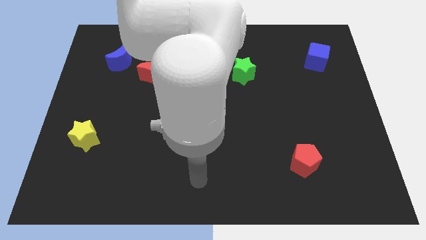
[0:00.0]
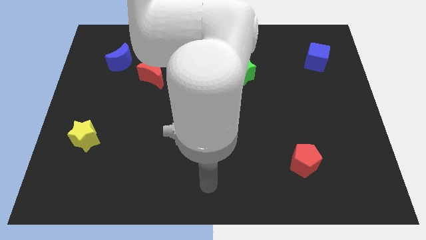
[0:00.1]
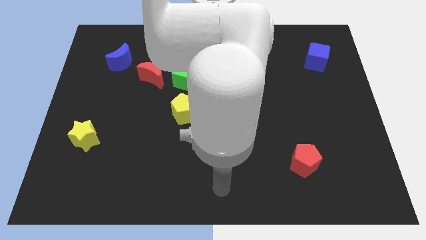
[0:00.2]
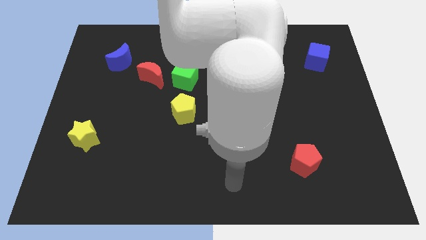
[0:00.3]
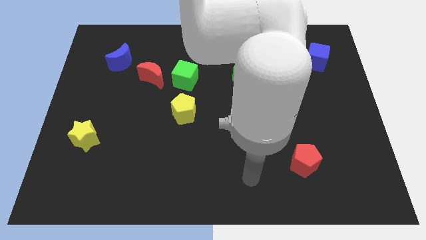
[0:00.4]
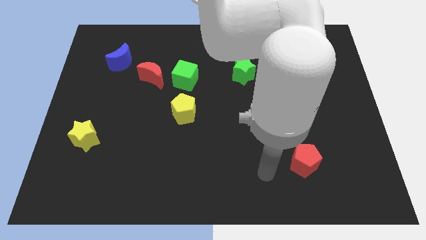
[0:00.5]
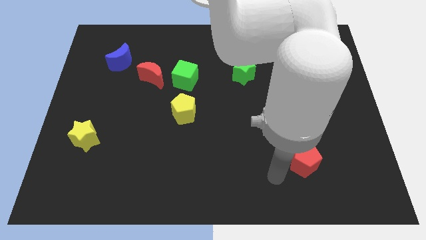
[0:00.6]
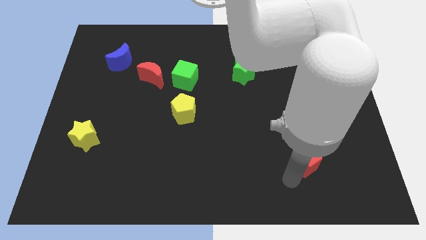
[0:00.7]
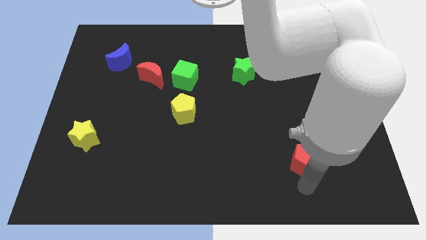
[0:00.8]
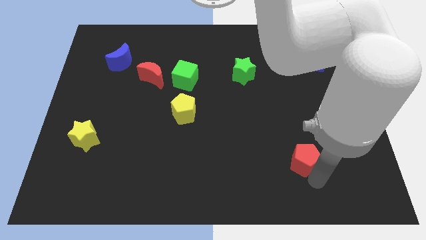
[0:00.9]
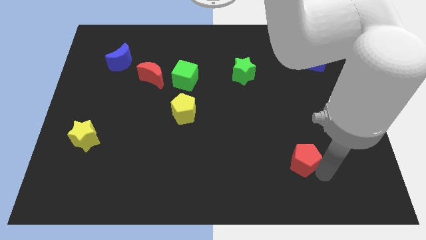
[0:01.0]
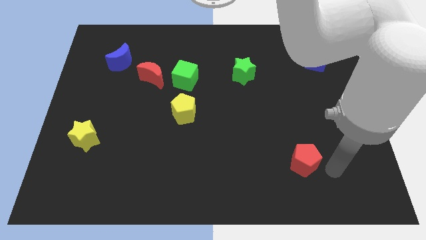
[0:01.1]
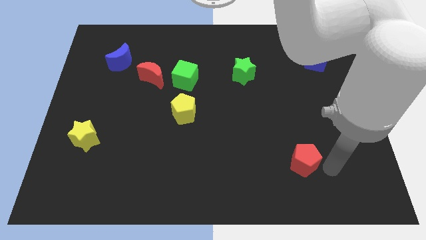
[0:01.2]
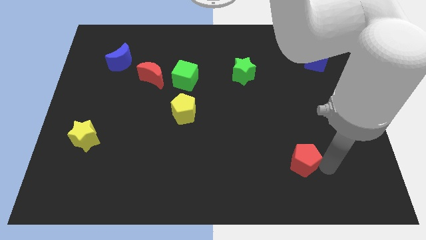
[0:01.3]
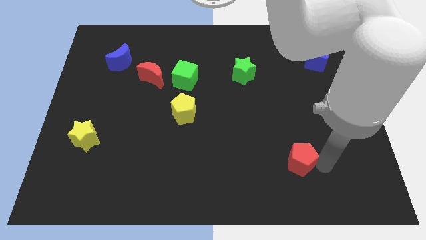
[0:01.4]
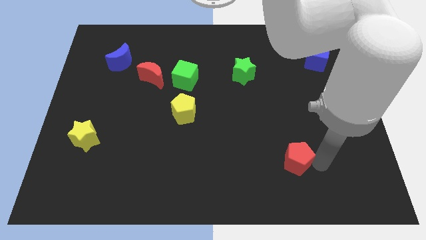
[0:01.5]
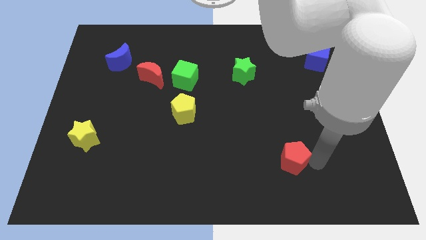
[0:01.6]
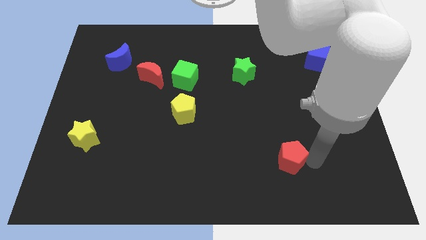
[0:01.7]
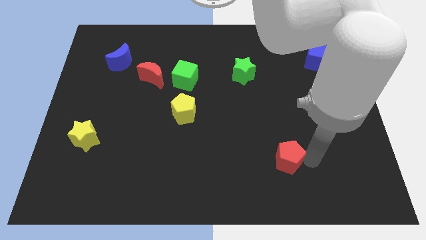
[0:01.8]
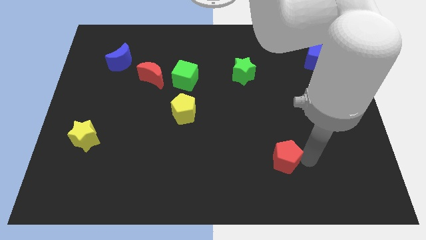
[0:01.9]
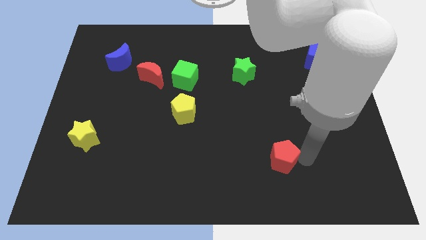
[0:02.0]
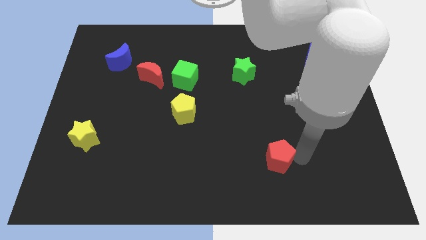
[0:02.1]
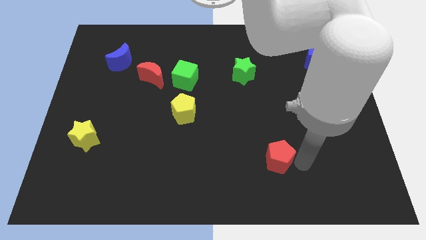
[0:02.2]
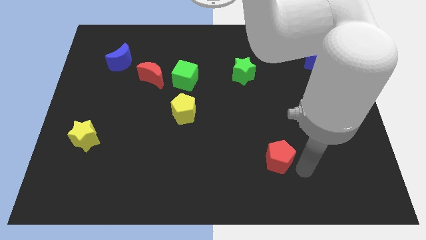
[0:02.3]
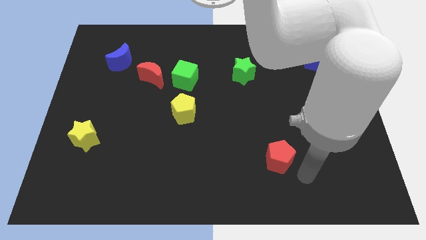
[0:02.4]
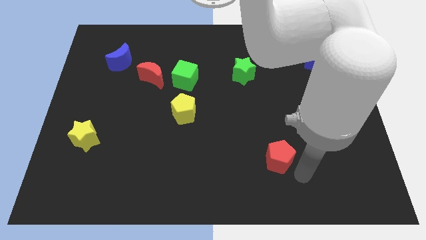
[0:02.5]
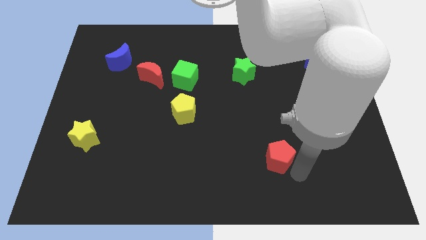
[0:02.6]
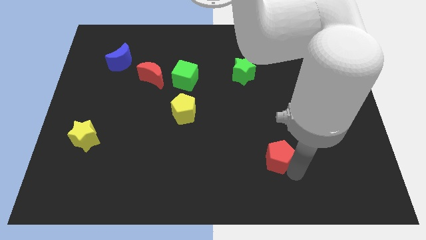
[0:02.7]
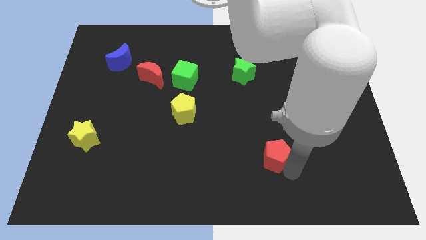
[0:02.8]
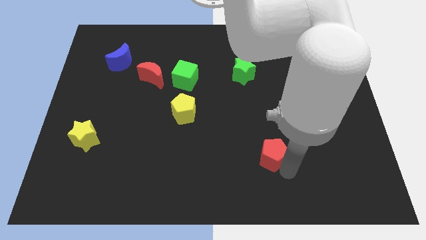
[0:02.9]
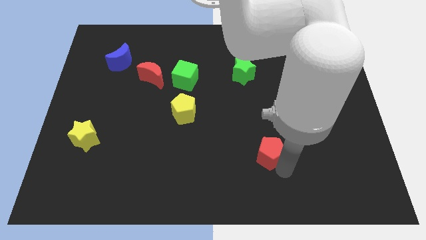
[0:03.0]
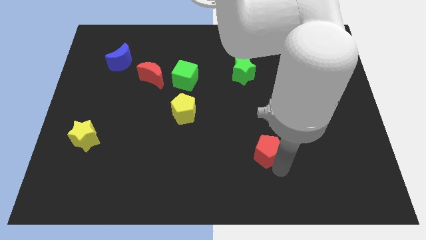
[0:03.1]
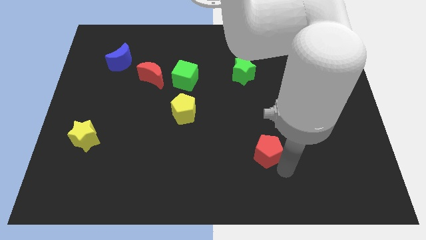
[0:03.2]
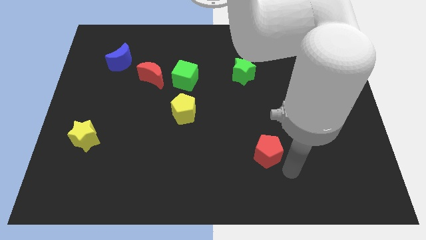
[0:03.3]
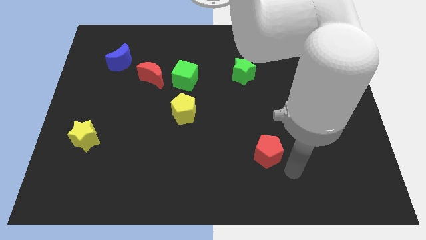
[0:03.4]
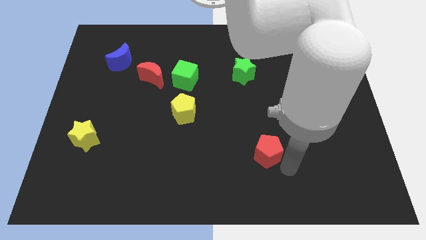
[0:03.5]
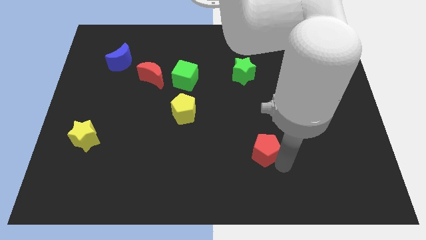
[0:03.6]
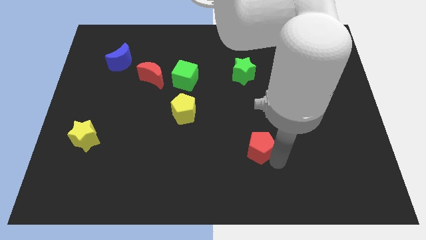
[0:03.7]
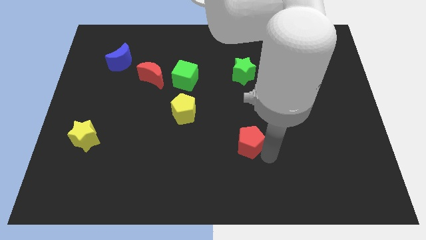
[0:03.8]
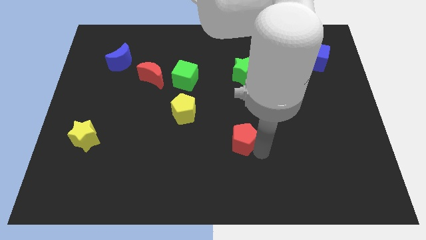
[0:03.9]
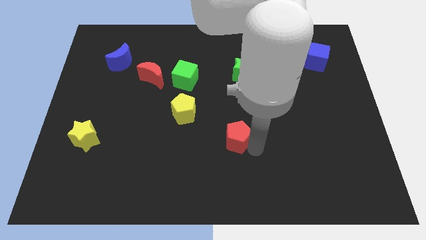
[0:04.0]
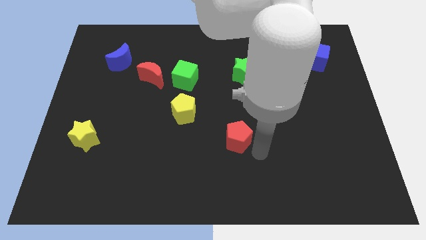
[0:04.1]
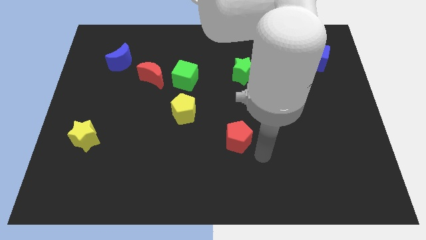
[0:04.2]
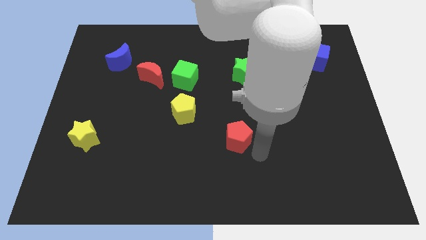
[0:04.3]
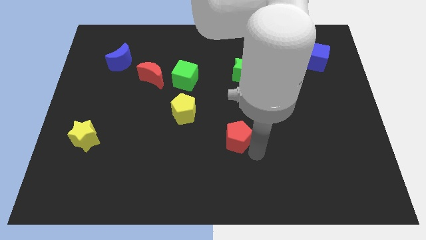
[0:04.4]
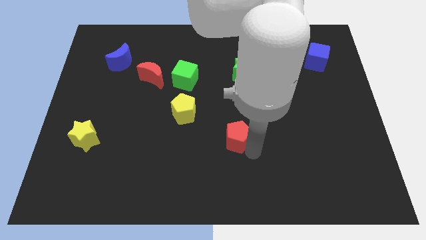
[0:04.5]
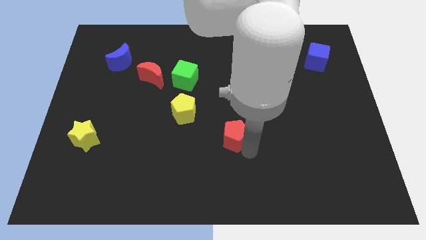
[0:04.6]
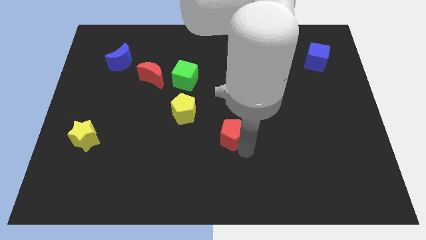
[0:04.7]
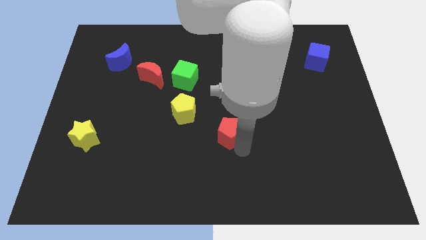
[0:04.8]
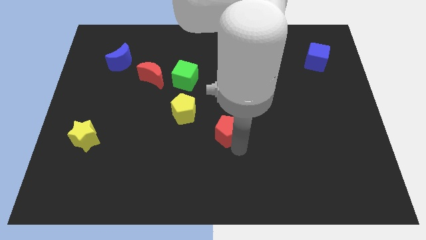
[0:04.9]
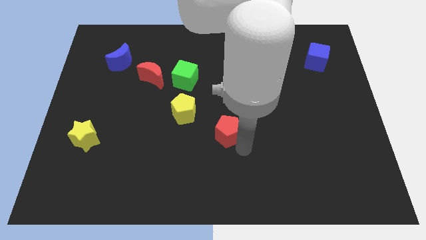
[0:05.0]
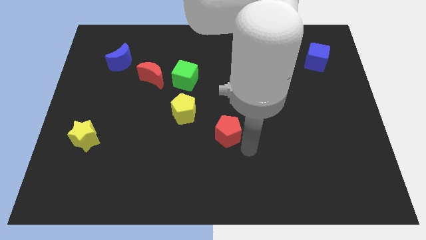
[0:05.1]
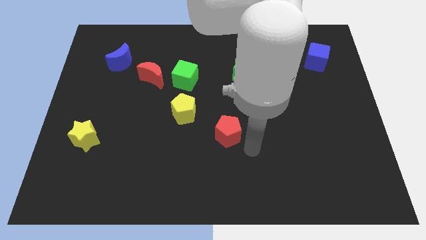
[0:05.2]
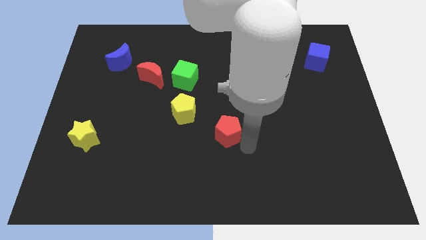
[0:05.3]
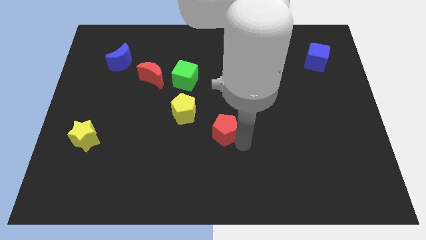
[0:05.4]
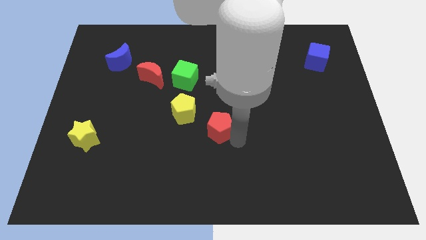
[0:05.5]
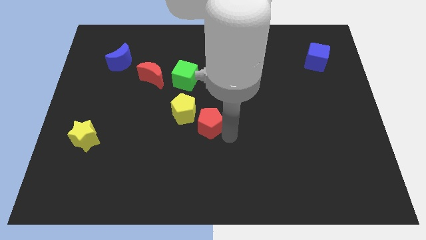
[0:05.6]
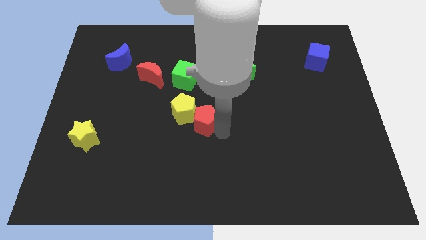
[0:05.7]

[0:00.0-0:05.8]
push the red pentagon next to the yellow pentagon

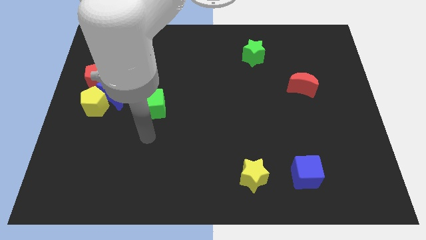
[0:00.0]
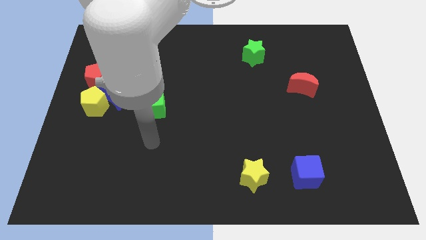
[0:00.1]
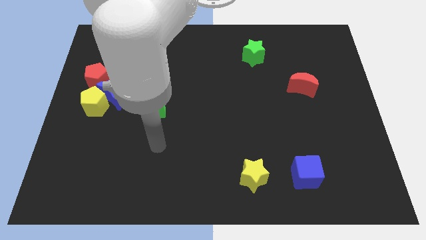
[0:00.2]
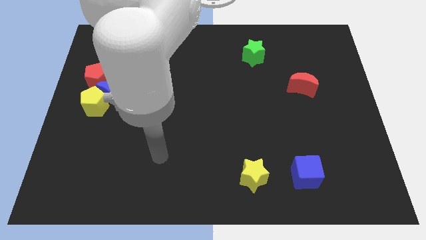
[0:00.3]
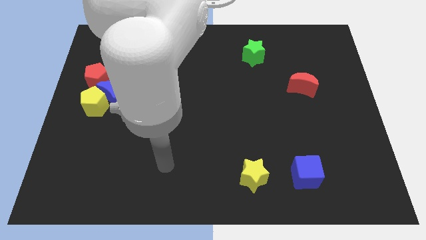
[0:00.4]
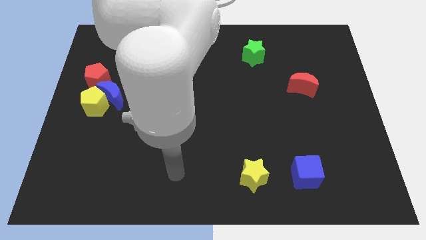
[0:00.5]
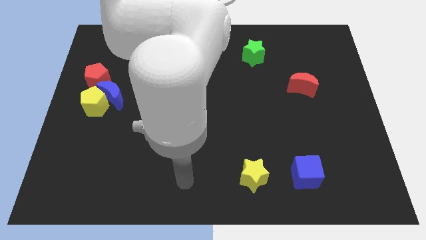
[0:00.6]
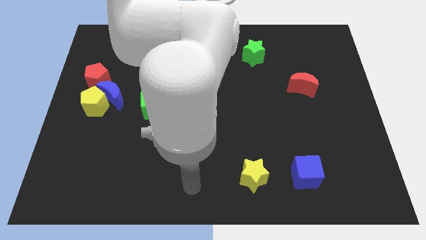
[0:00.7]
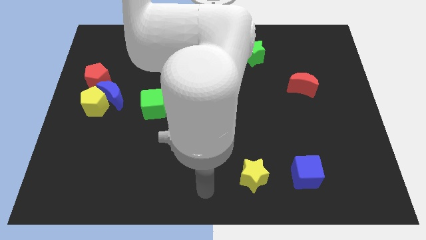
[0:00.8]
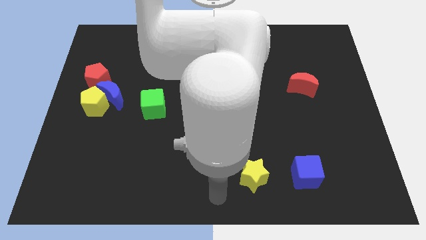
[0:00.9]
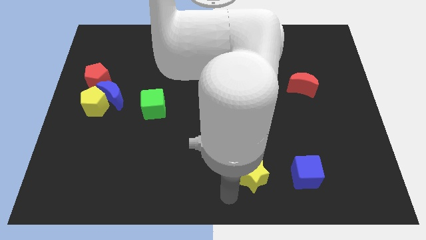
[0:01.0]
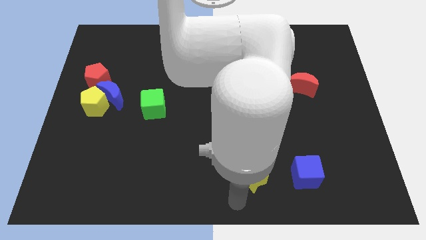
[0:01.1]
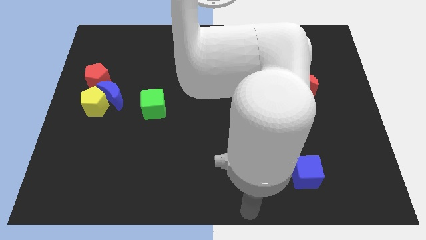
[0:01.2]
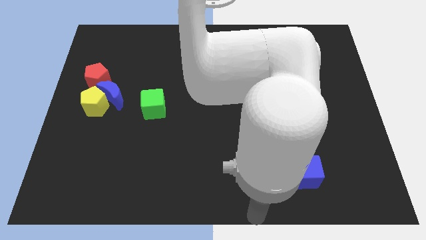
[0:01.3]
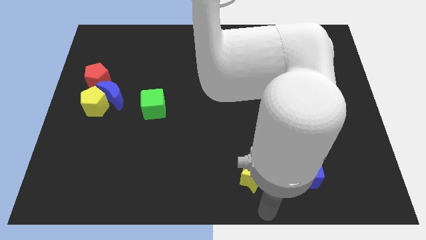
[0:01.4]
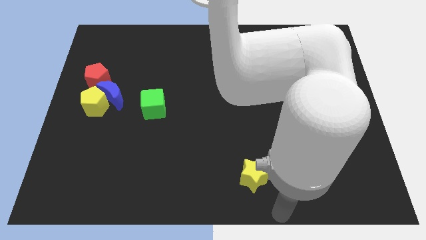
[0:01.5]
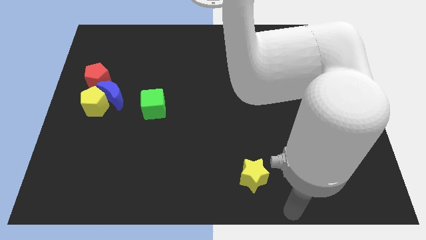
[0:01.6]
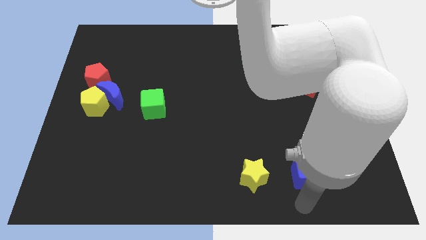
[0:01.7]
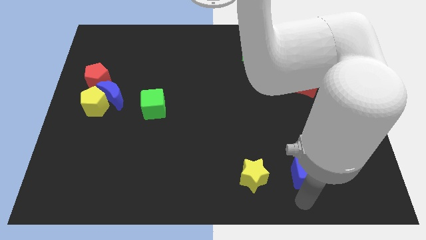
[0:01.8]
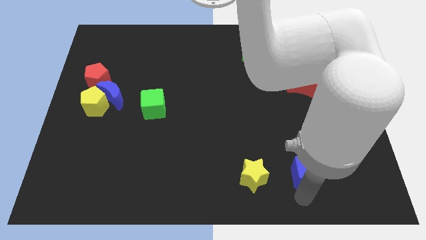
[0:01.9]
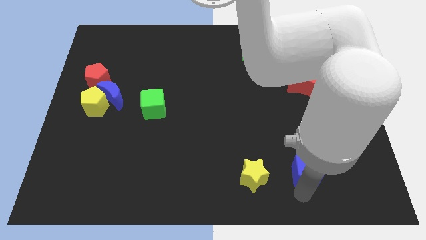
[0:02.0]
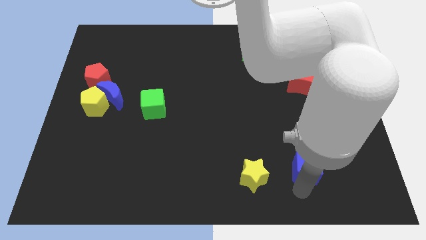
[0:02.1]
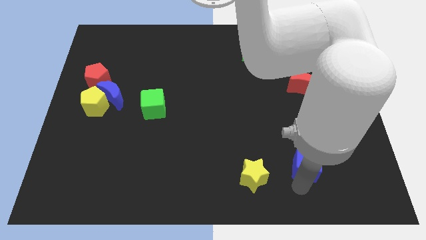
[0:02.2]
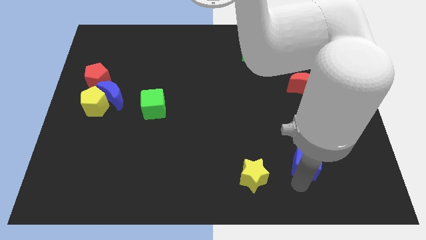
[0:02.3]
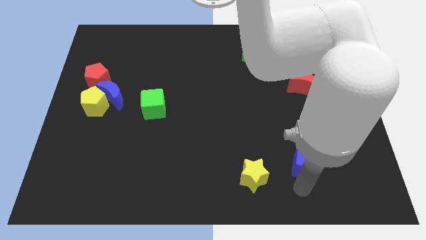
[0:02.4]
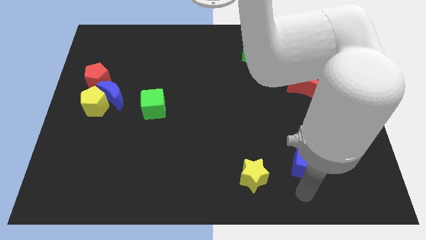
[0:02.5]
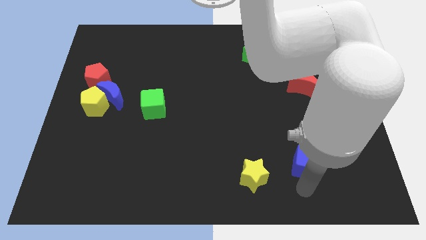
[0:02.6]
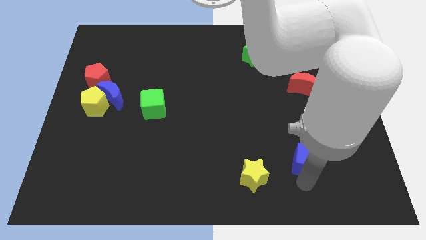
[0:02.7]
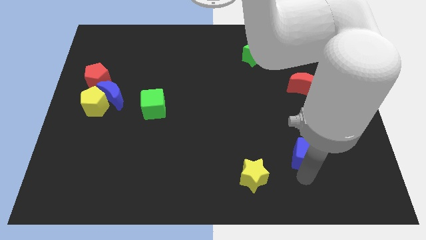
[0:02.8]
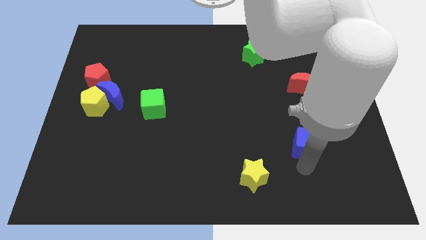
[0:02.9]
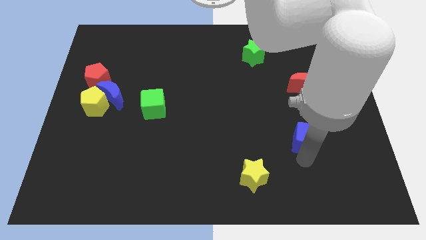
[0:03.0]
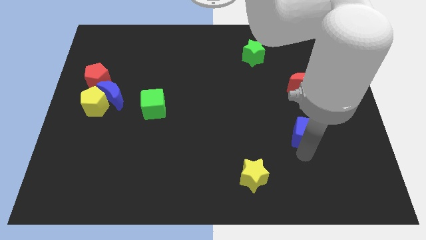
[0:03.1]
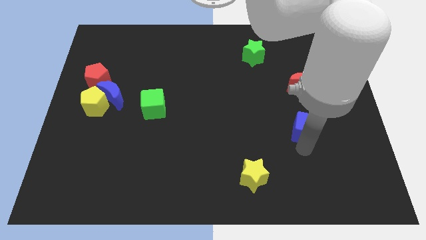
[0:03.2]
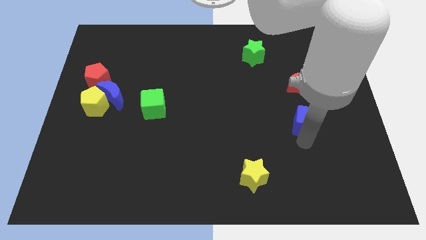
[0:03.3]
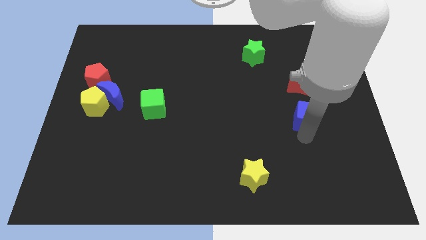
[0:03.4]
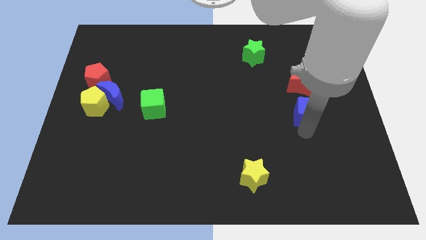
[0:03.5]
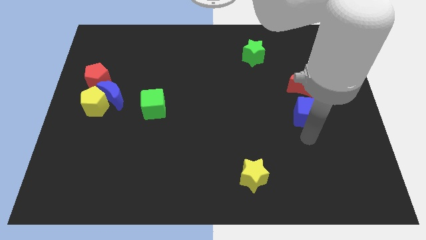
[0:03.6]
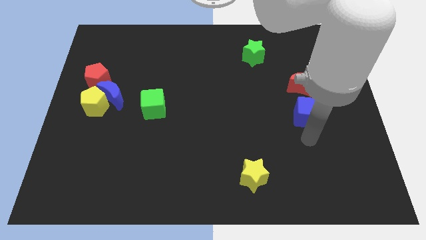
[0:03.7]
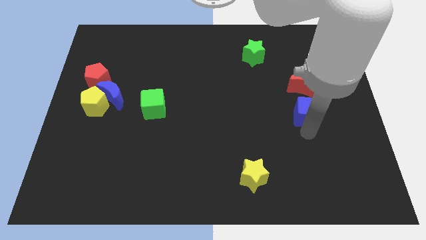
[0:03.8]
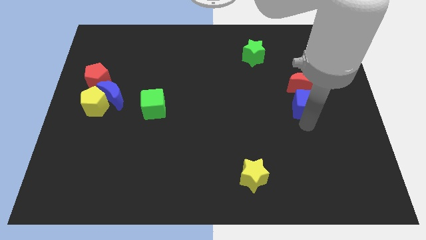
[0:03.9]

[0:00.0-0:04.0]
slide the blue cube next to the red moon
